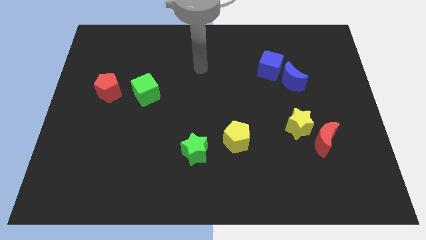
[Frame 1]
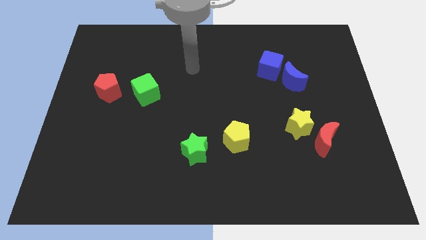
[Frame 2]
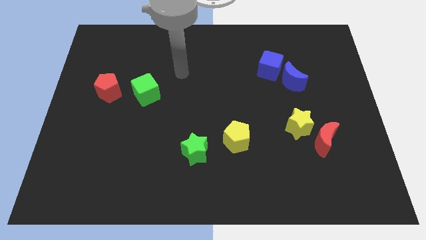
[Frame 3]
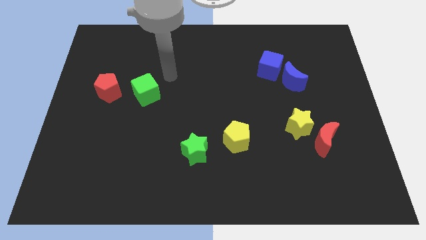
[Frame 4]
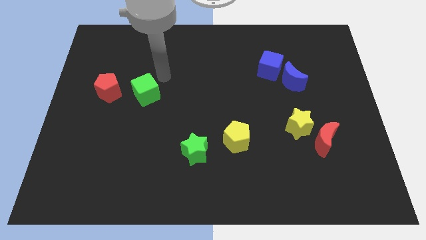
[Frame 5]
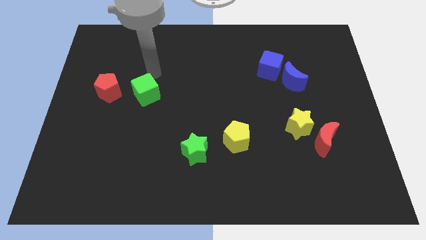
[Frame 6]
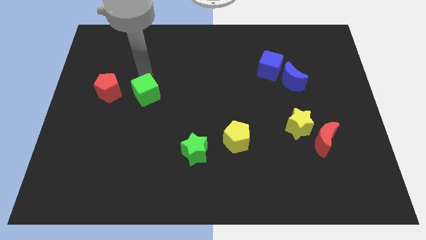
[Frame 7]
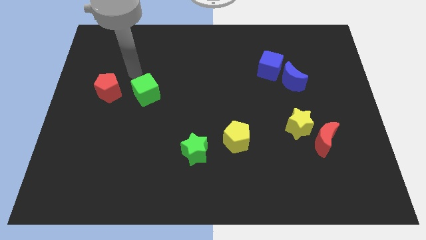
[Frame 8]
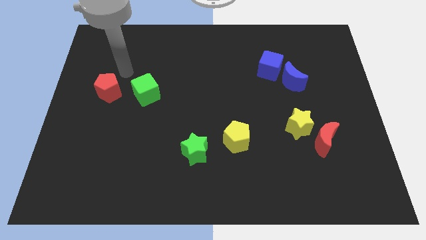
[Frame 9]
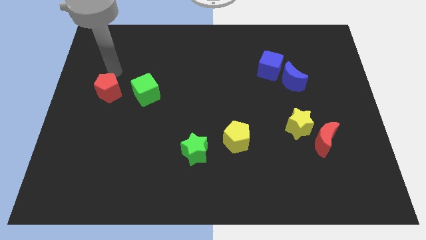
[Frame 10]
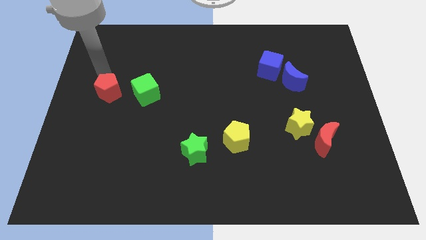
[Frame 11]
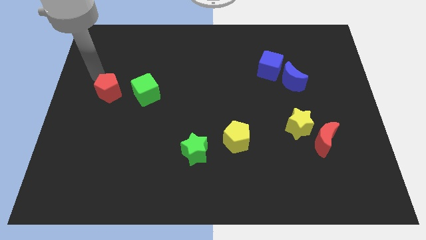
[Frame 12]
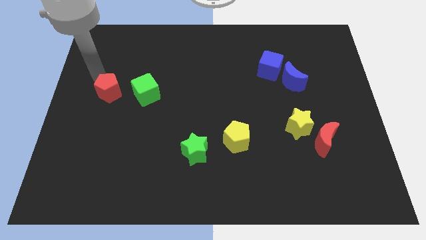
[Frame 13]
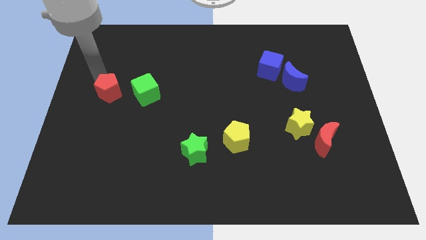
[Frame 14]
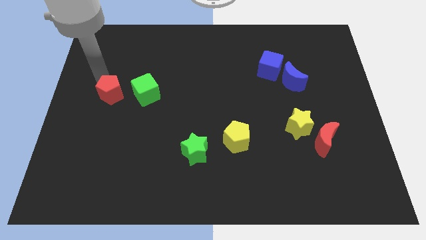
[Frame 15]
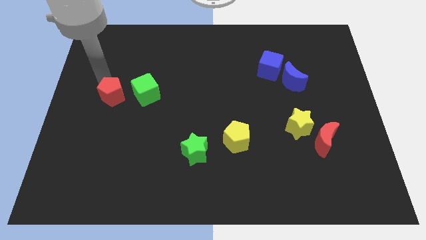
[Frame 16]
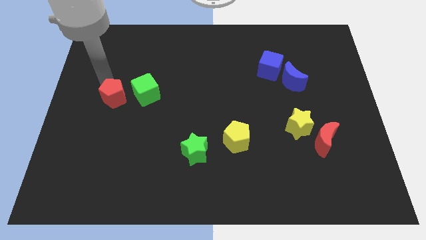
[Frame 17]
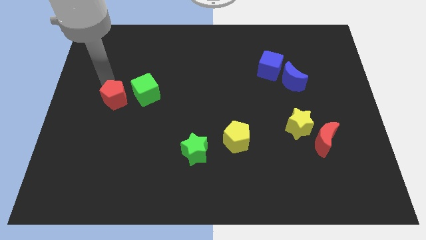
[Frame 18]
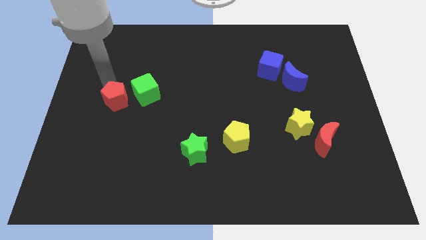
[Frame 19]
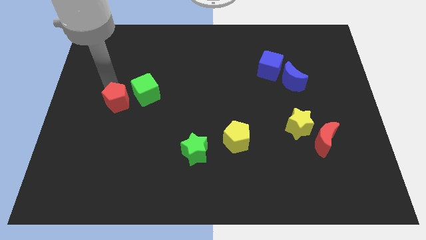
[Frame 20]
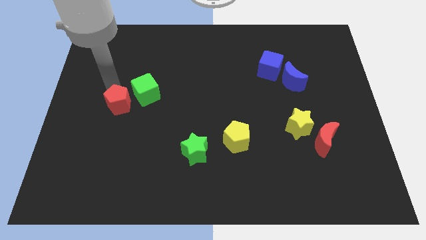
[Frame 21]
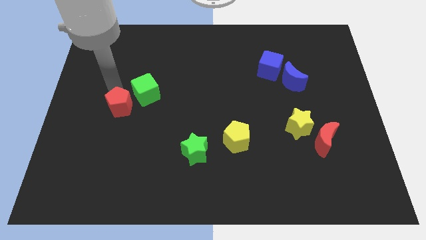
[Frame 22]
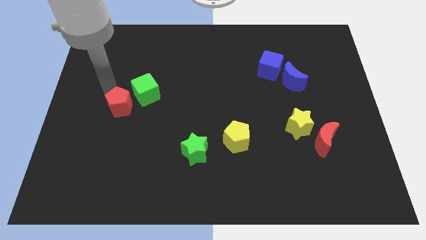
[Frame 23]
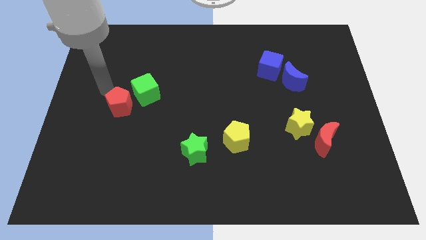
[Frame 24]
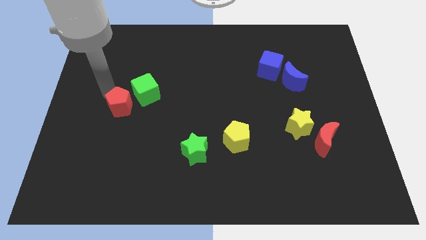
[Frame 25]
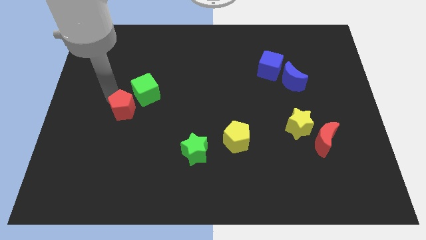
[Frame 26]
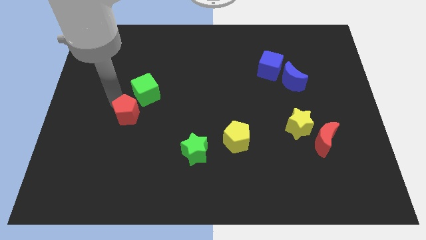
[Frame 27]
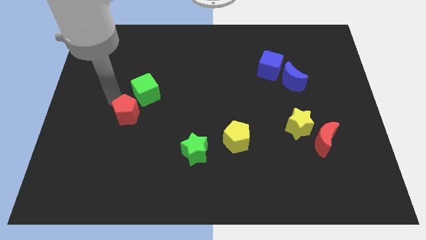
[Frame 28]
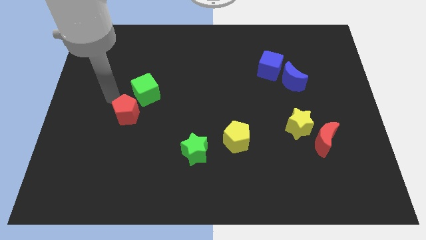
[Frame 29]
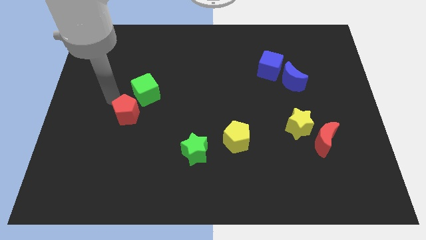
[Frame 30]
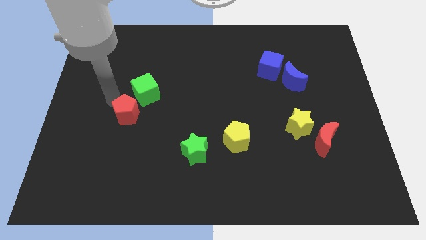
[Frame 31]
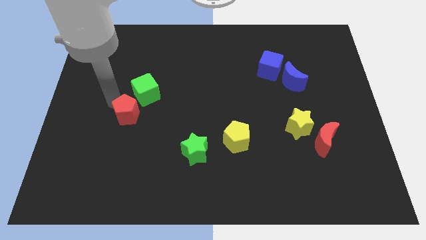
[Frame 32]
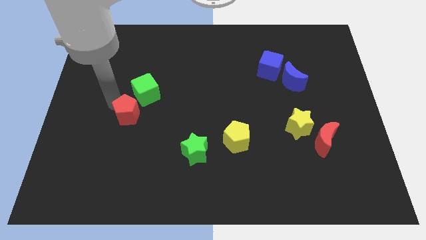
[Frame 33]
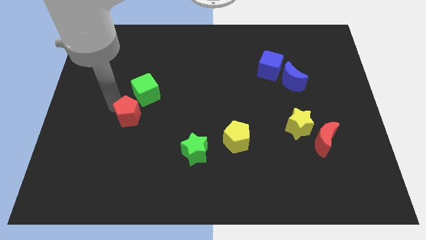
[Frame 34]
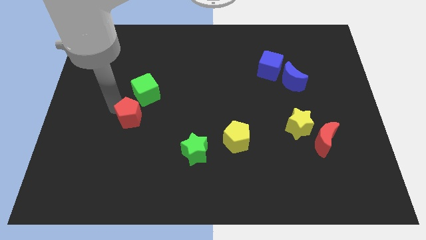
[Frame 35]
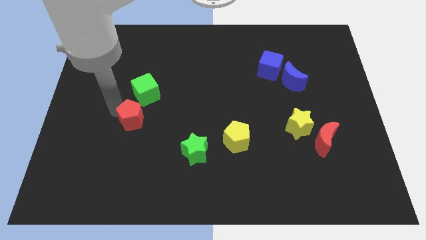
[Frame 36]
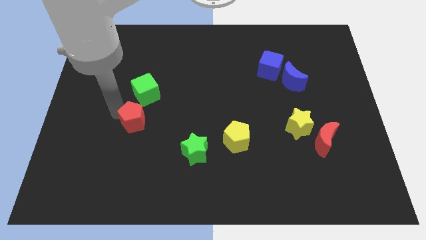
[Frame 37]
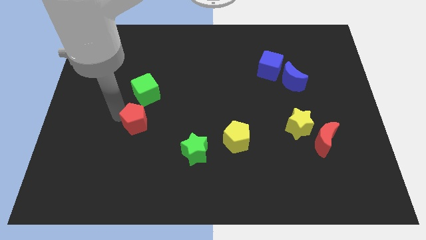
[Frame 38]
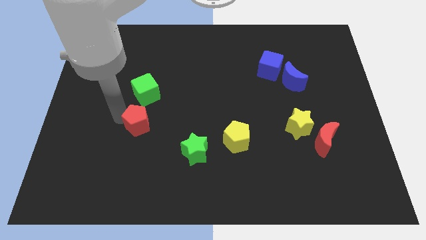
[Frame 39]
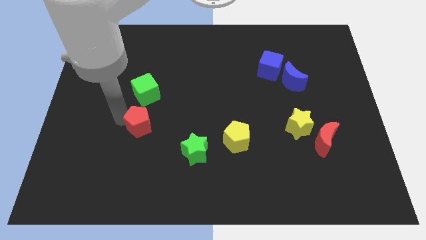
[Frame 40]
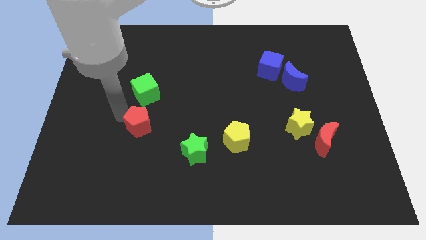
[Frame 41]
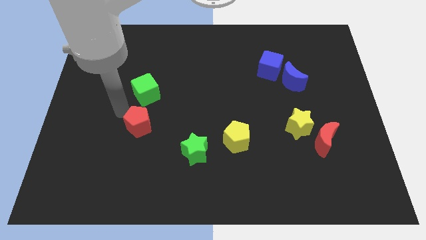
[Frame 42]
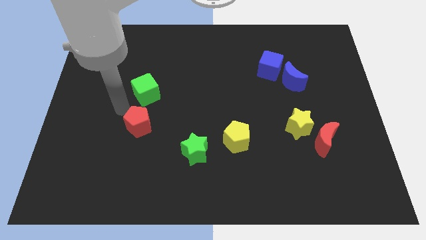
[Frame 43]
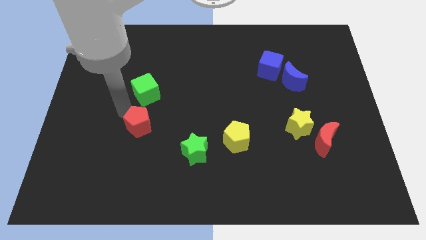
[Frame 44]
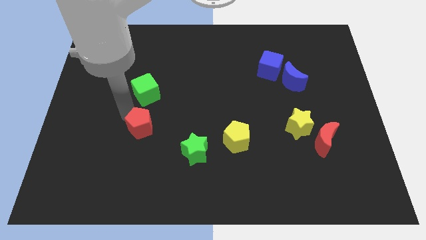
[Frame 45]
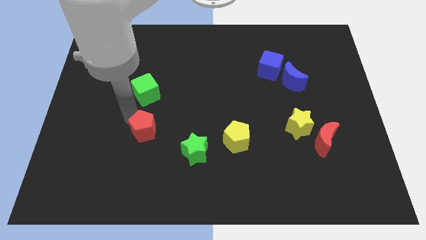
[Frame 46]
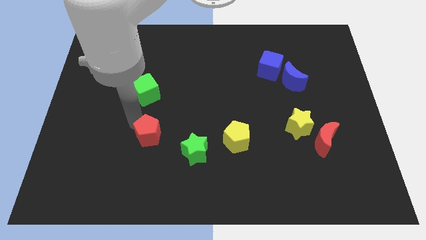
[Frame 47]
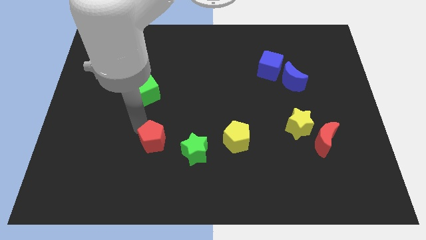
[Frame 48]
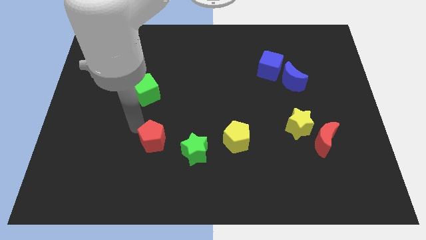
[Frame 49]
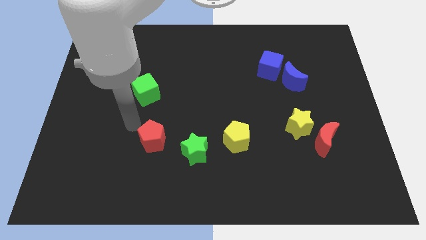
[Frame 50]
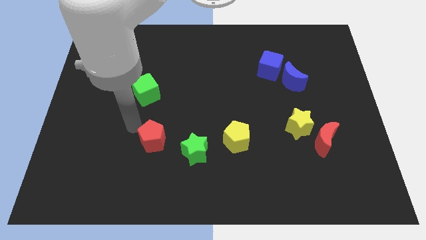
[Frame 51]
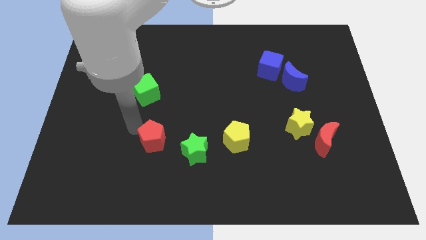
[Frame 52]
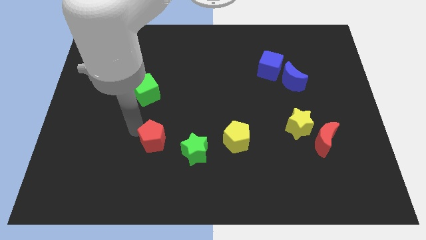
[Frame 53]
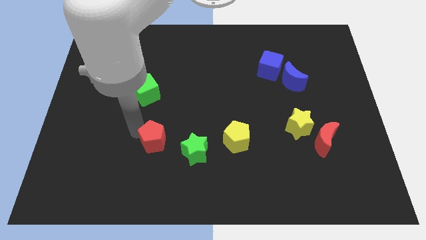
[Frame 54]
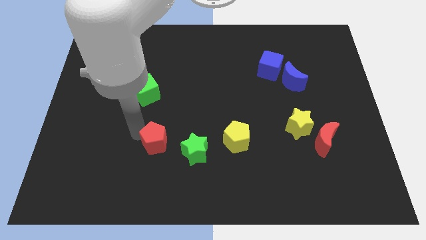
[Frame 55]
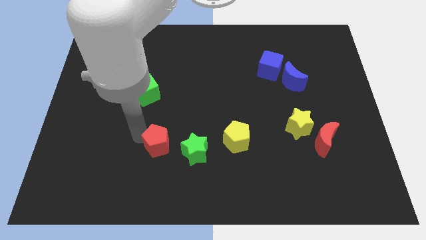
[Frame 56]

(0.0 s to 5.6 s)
slide the red pentagon down and then right

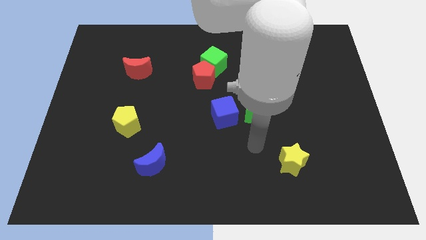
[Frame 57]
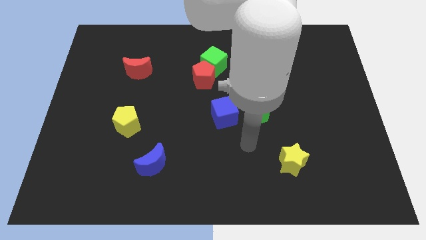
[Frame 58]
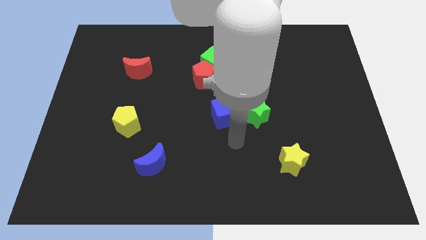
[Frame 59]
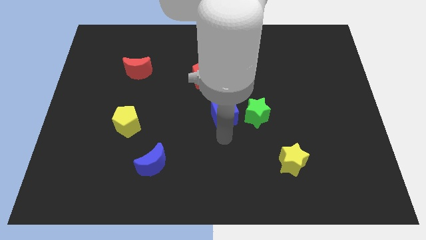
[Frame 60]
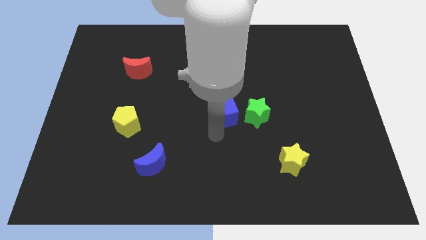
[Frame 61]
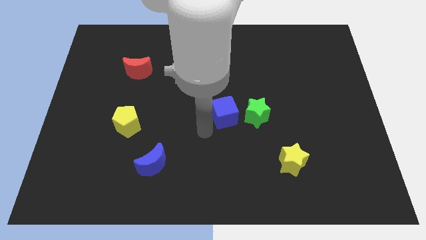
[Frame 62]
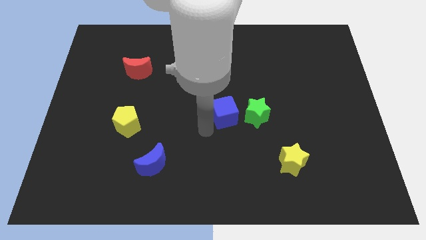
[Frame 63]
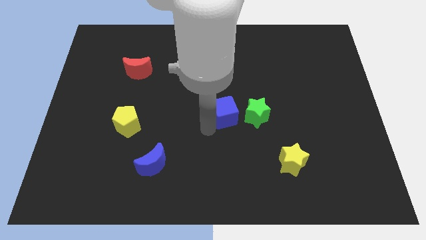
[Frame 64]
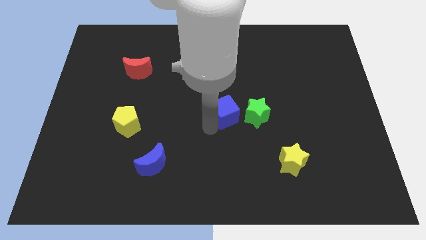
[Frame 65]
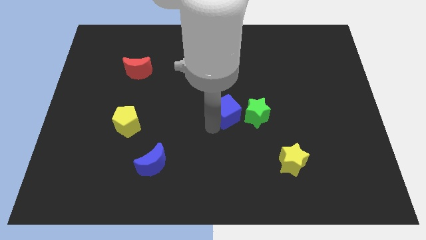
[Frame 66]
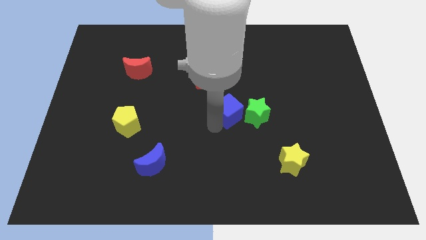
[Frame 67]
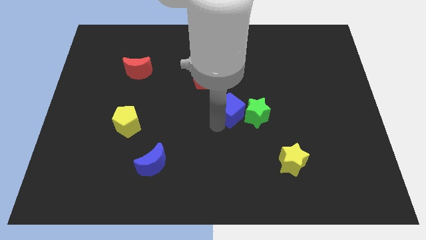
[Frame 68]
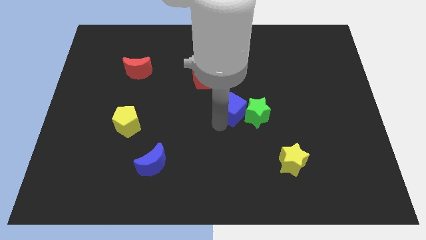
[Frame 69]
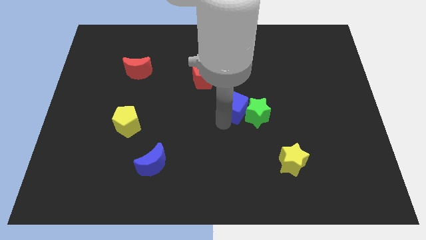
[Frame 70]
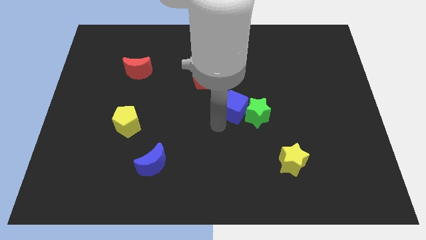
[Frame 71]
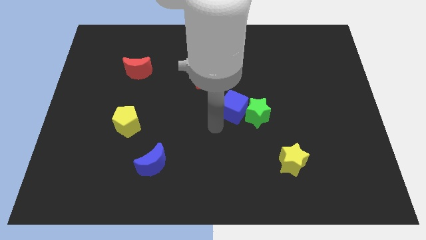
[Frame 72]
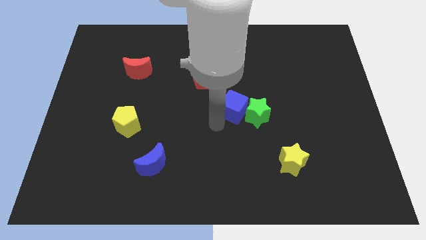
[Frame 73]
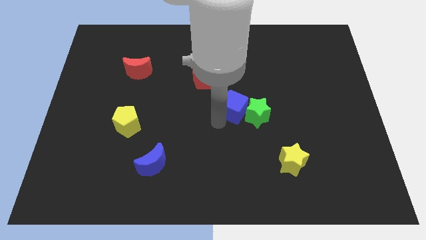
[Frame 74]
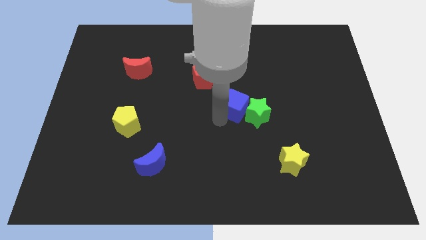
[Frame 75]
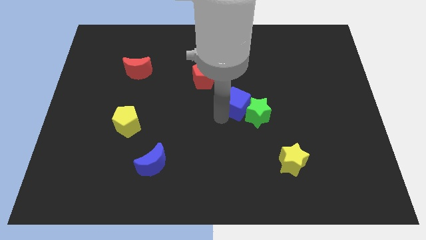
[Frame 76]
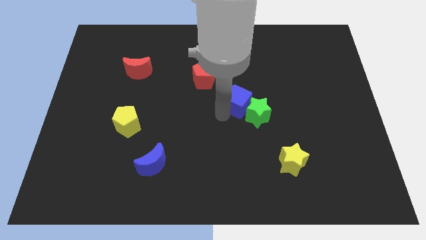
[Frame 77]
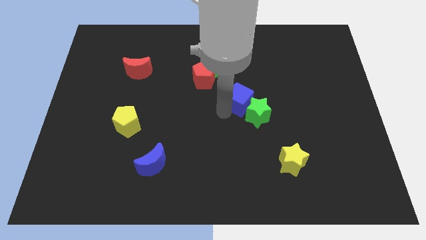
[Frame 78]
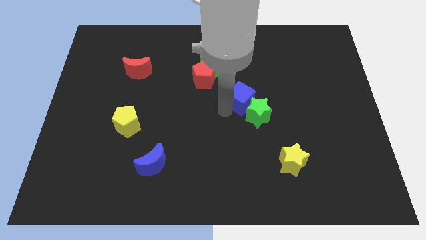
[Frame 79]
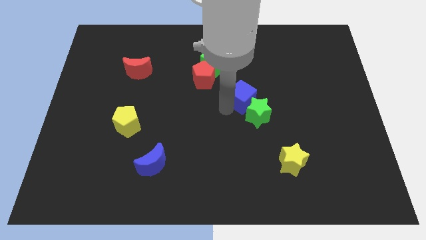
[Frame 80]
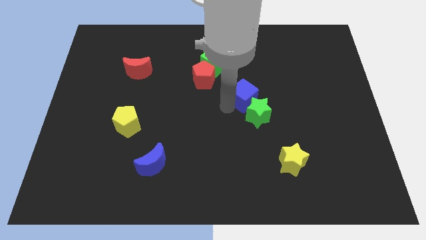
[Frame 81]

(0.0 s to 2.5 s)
slightly move the blue cube upwards and then right
